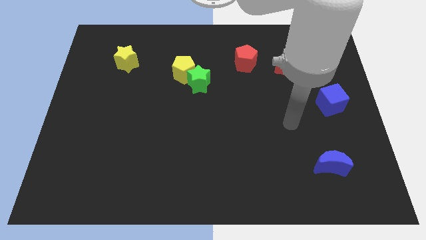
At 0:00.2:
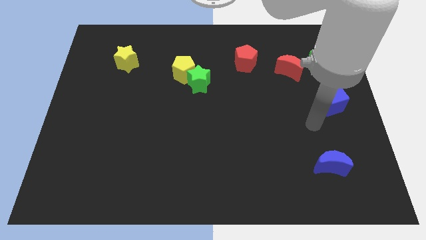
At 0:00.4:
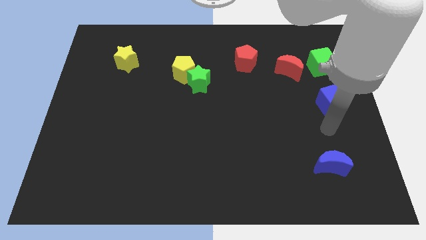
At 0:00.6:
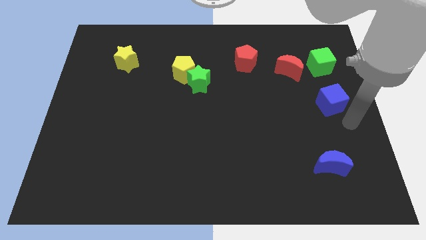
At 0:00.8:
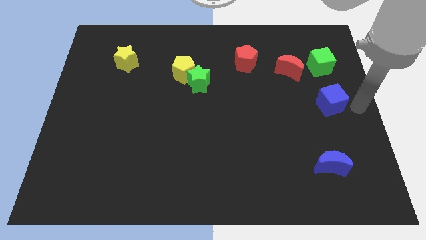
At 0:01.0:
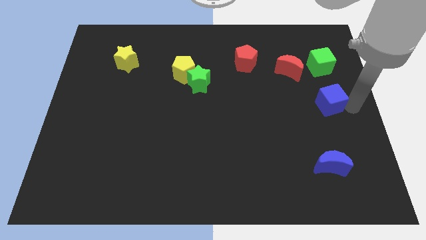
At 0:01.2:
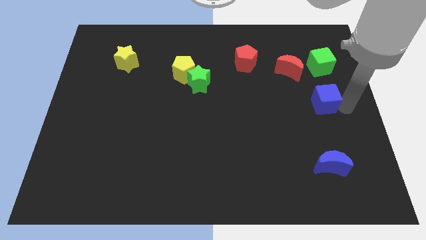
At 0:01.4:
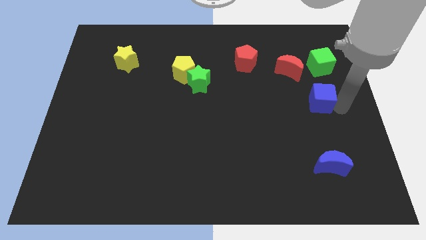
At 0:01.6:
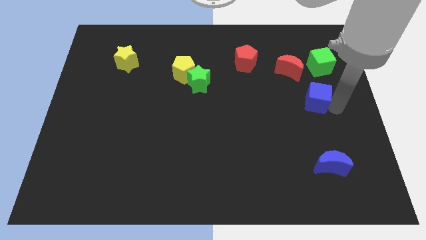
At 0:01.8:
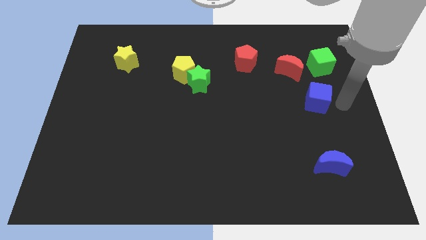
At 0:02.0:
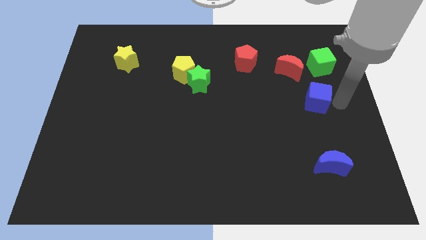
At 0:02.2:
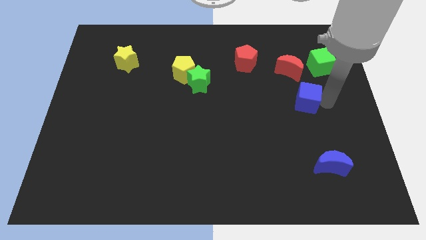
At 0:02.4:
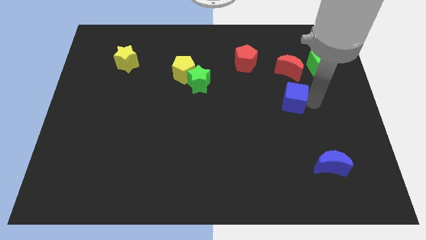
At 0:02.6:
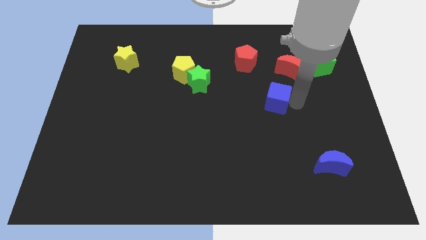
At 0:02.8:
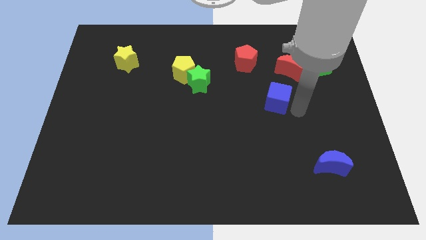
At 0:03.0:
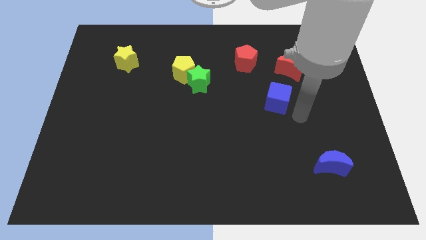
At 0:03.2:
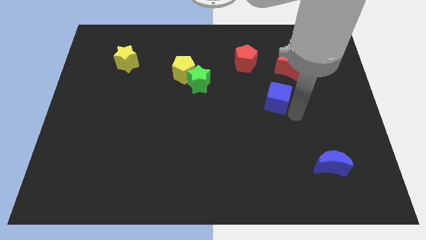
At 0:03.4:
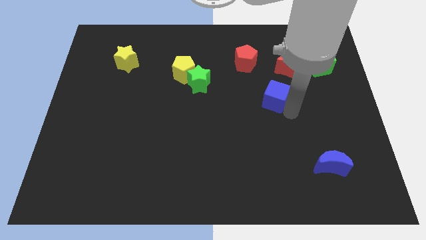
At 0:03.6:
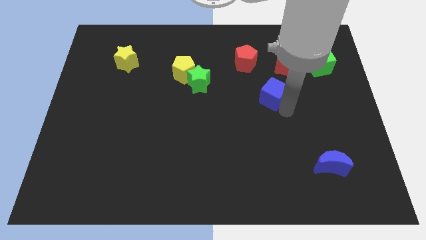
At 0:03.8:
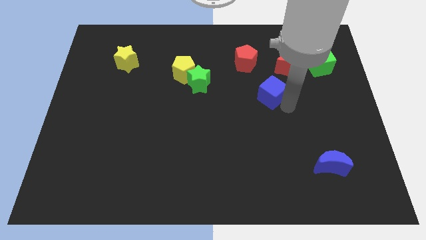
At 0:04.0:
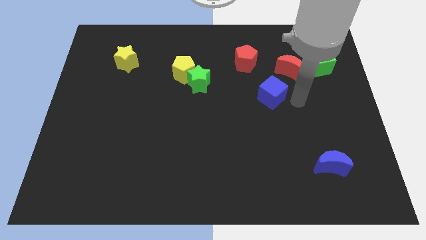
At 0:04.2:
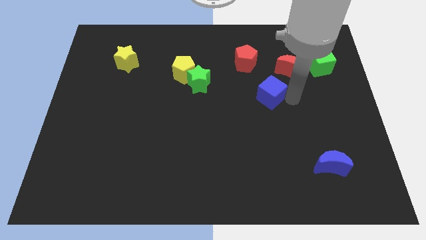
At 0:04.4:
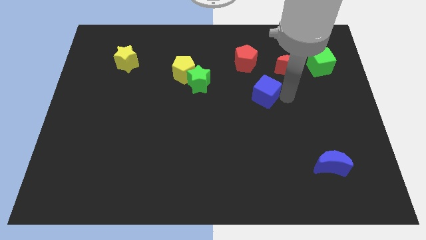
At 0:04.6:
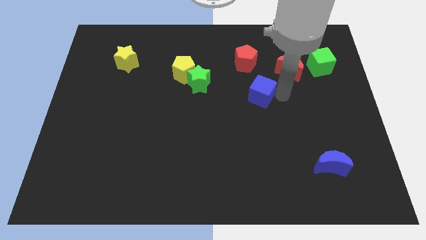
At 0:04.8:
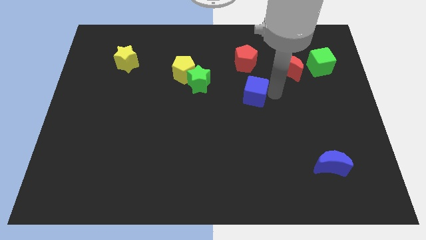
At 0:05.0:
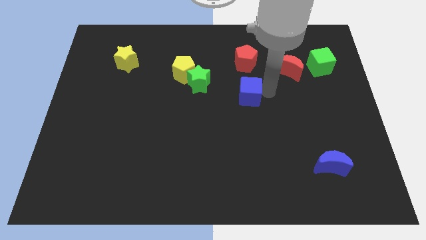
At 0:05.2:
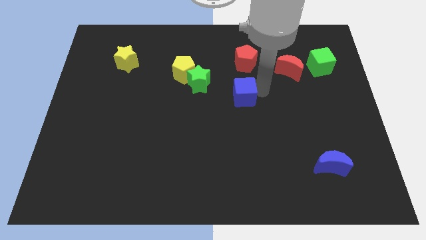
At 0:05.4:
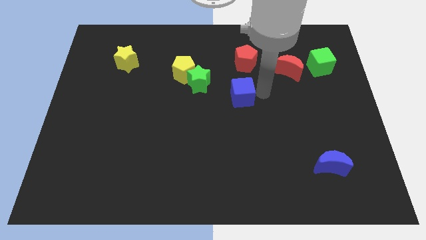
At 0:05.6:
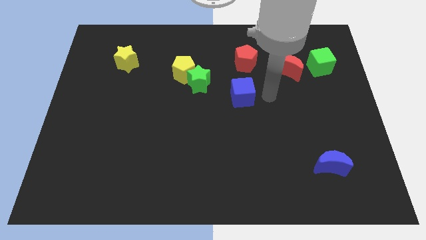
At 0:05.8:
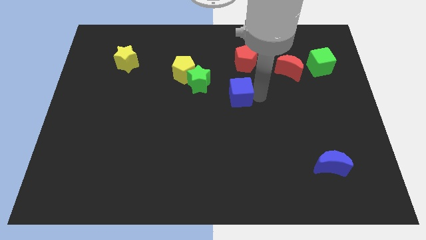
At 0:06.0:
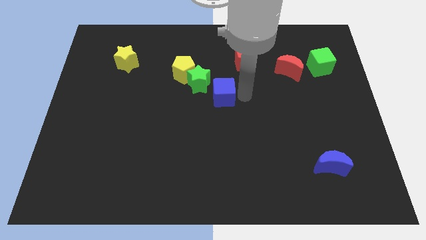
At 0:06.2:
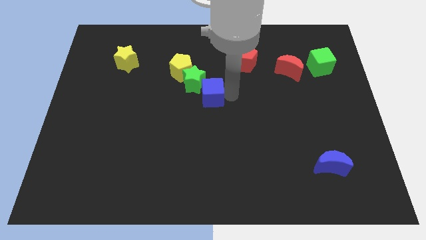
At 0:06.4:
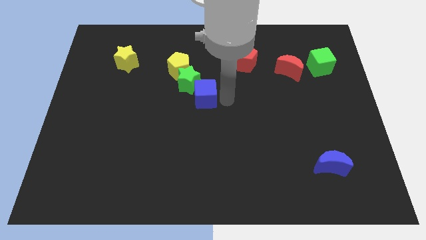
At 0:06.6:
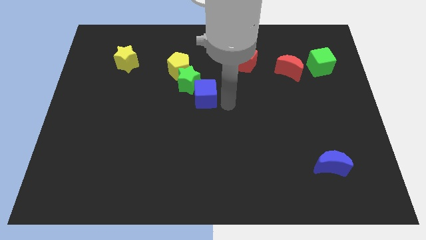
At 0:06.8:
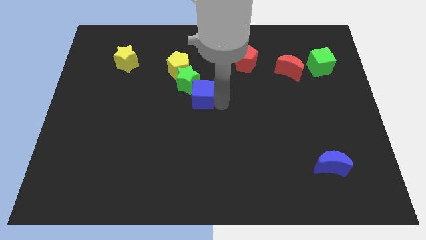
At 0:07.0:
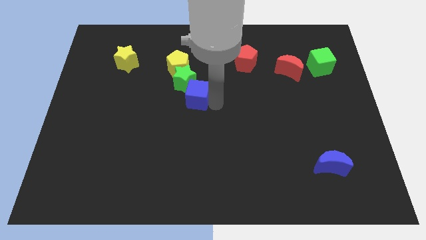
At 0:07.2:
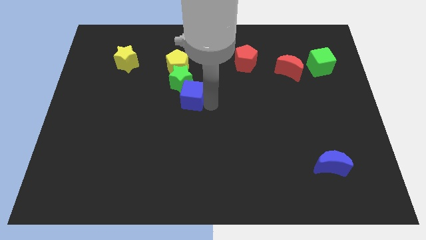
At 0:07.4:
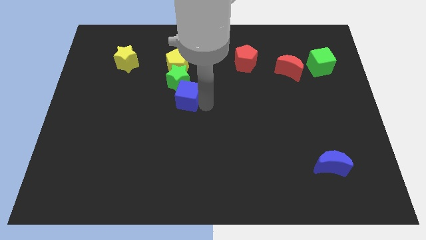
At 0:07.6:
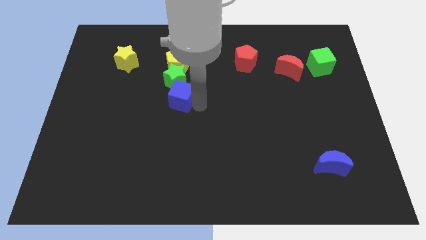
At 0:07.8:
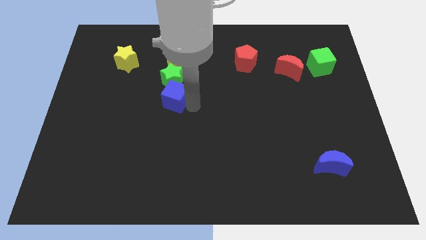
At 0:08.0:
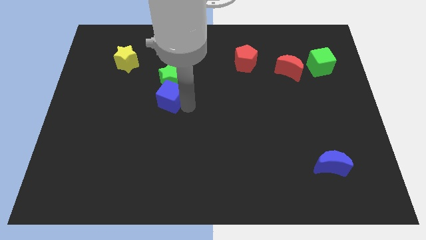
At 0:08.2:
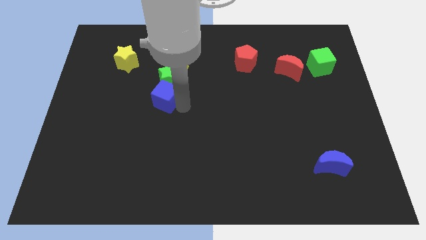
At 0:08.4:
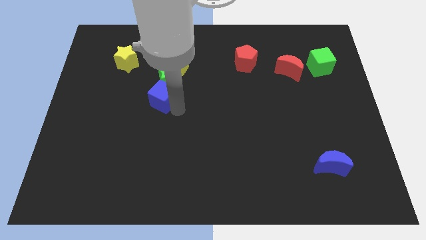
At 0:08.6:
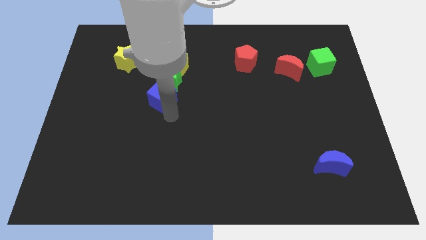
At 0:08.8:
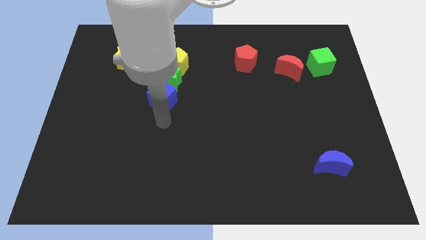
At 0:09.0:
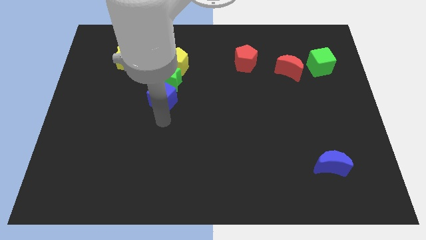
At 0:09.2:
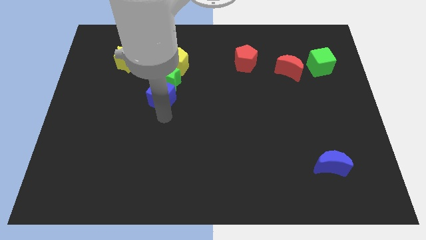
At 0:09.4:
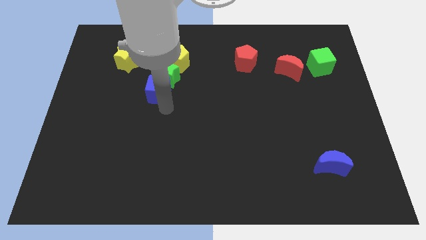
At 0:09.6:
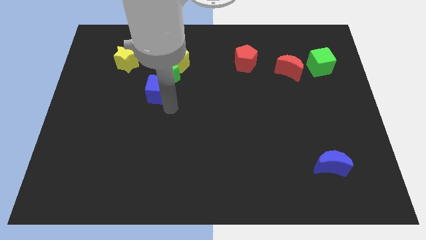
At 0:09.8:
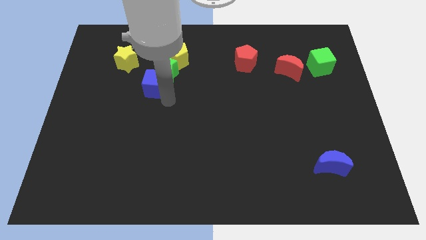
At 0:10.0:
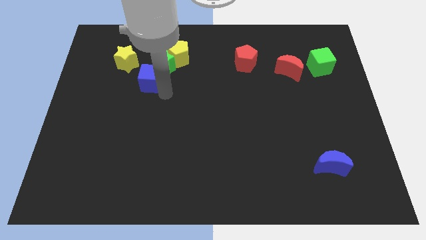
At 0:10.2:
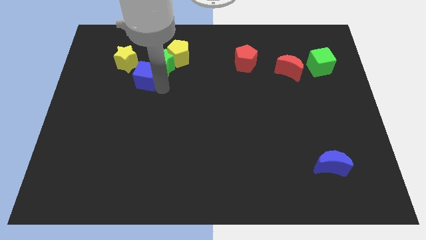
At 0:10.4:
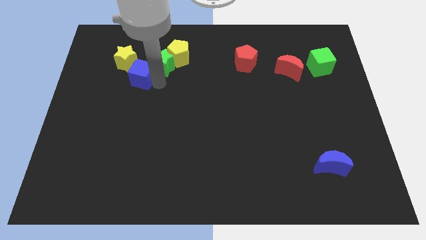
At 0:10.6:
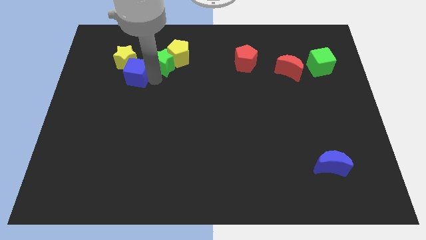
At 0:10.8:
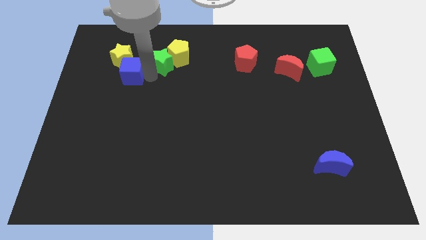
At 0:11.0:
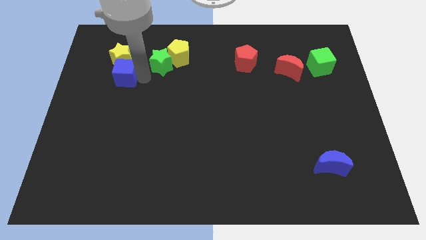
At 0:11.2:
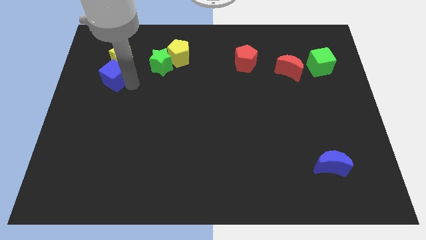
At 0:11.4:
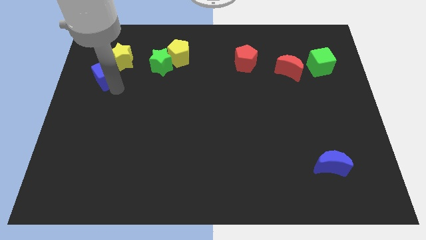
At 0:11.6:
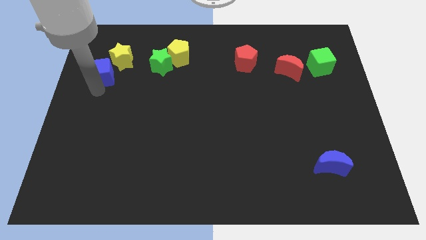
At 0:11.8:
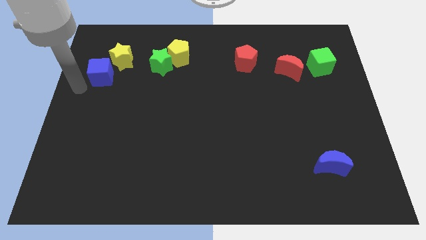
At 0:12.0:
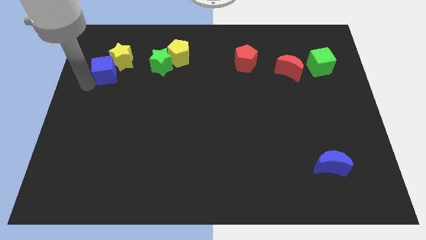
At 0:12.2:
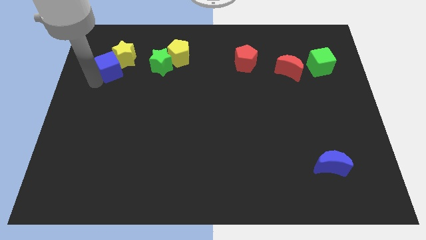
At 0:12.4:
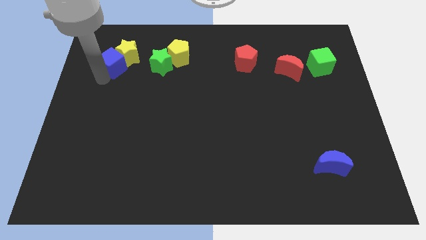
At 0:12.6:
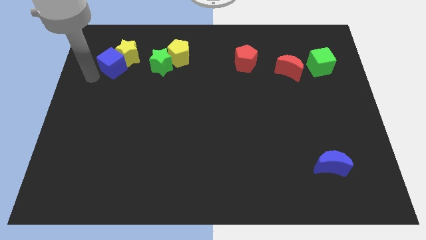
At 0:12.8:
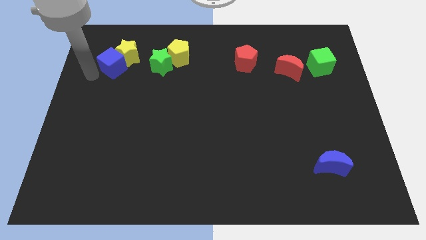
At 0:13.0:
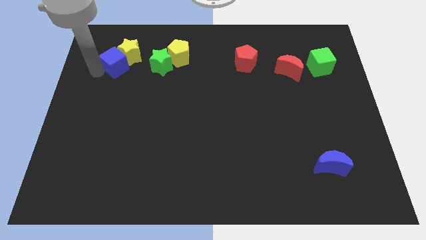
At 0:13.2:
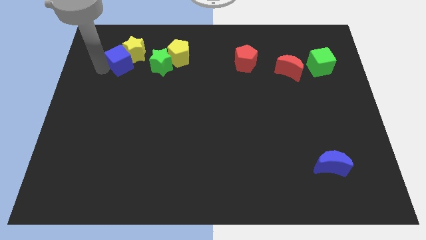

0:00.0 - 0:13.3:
move the blue cube just left of the yellow pentagon

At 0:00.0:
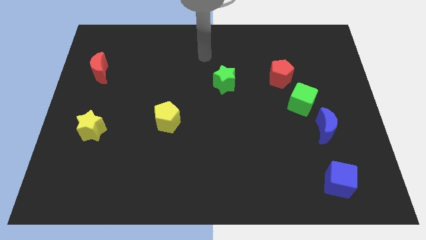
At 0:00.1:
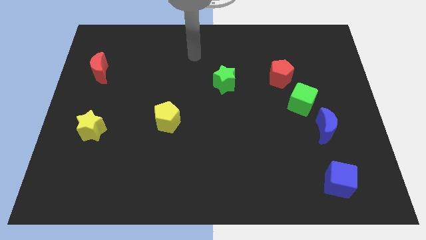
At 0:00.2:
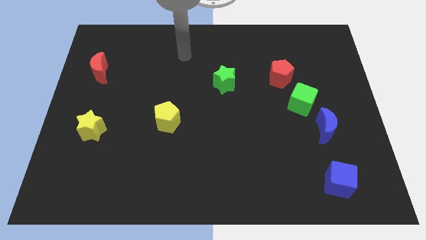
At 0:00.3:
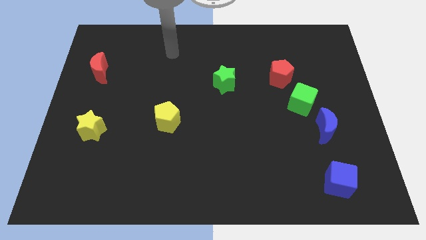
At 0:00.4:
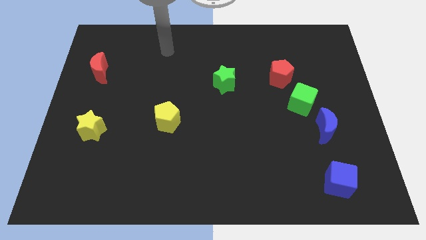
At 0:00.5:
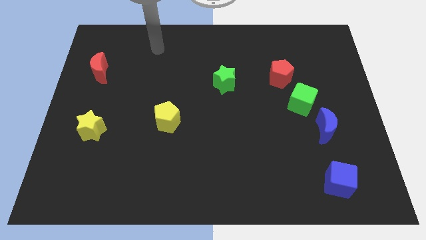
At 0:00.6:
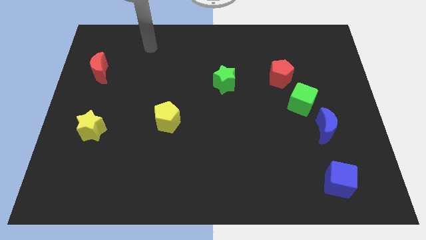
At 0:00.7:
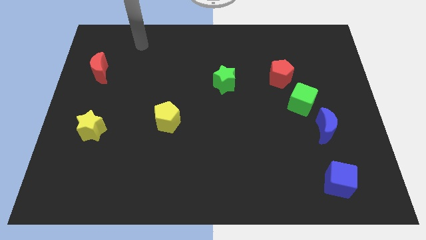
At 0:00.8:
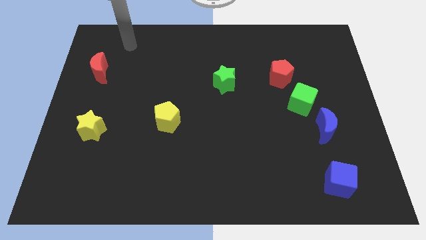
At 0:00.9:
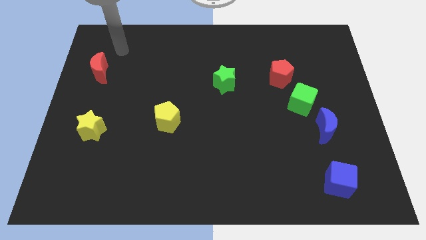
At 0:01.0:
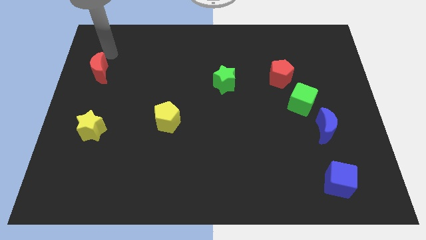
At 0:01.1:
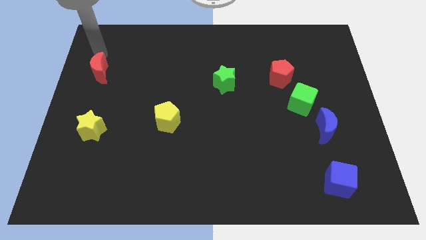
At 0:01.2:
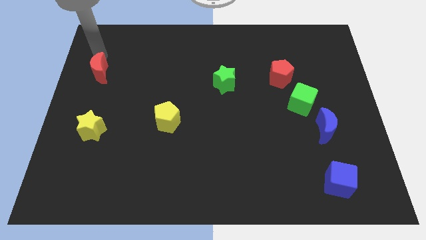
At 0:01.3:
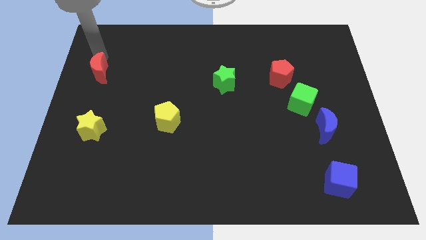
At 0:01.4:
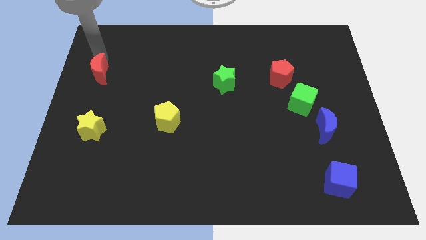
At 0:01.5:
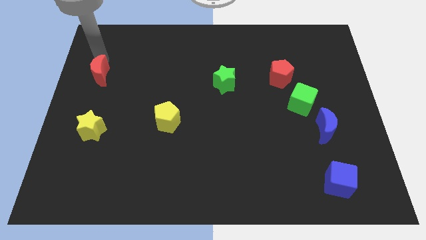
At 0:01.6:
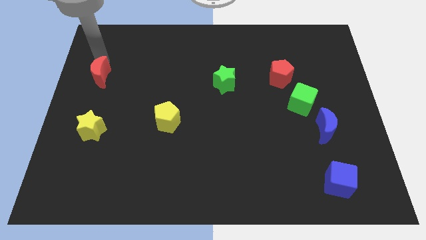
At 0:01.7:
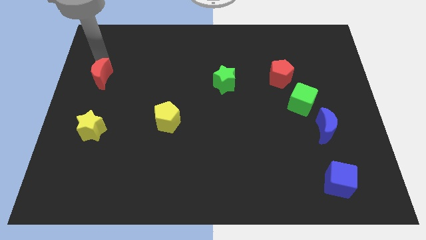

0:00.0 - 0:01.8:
put the red moon above the yellow star
